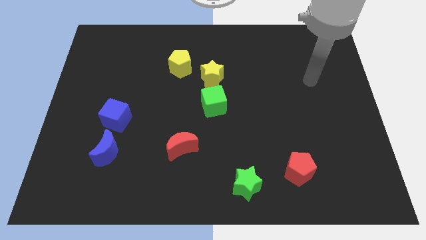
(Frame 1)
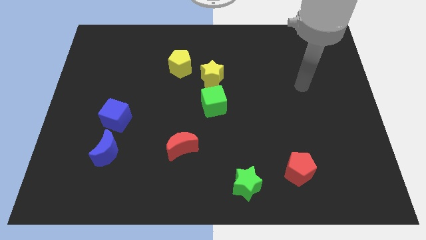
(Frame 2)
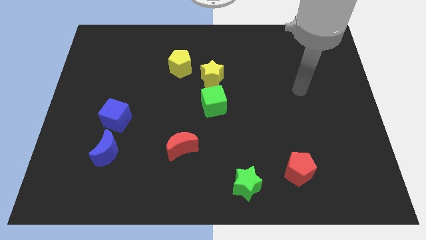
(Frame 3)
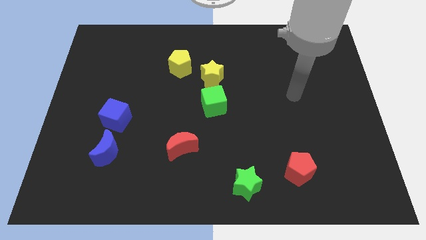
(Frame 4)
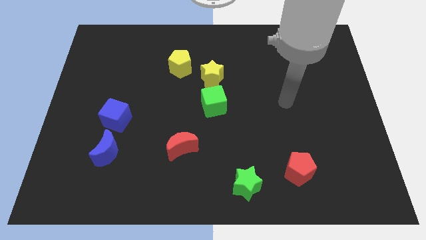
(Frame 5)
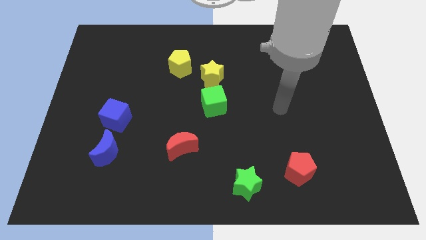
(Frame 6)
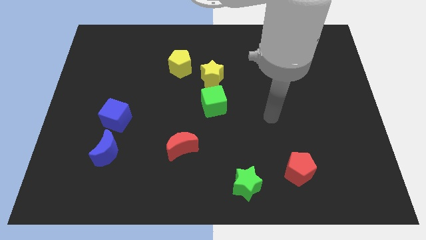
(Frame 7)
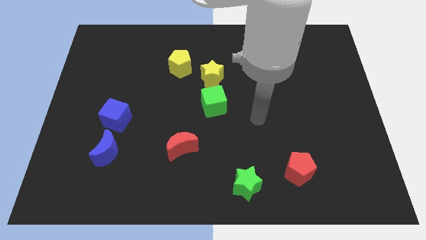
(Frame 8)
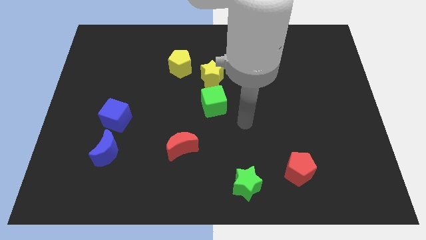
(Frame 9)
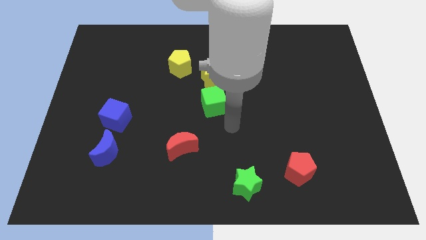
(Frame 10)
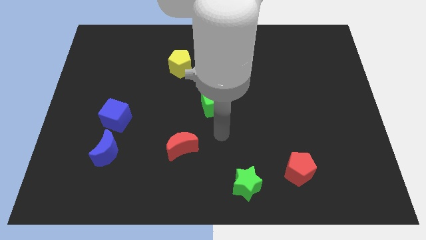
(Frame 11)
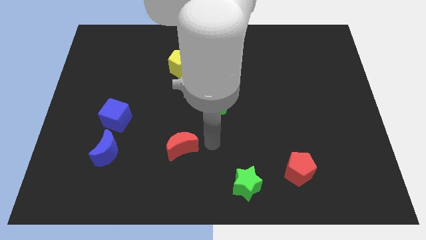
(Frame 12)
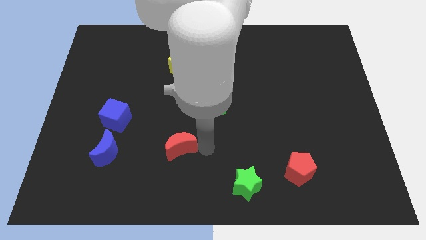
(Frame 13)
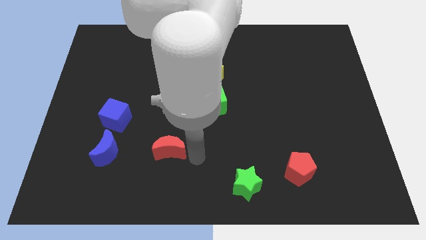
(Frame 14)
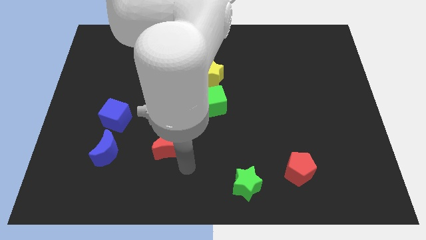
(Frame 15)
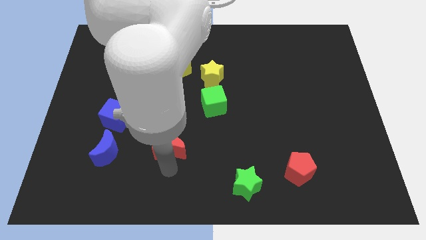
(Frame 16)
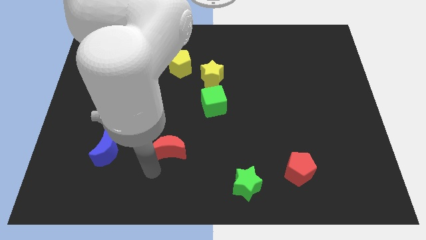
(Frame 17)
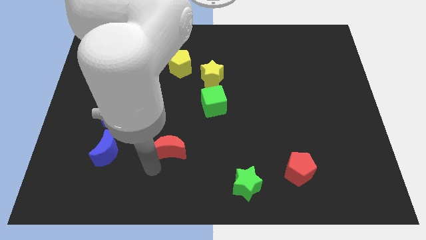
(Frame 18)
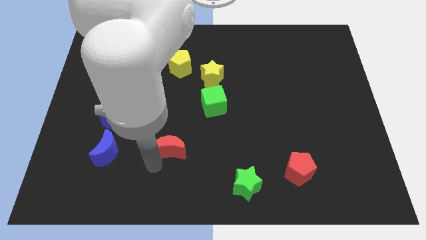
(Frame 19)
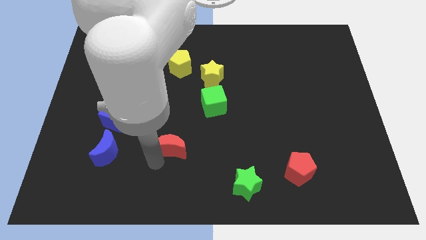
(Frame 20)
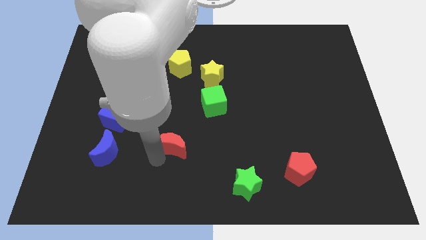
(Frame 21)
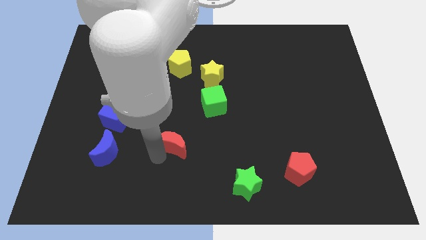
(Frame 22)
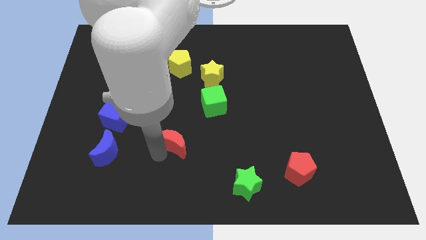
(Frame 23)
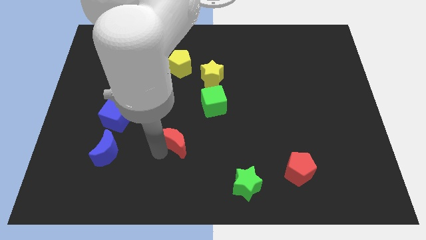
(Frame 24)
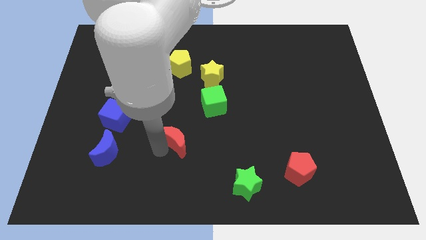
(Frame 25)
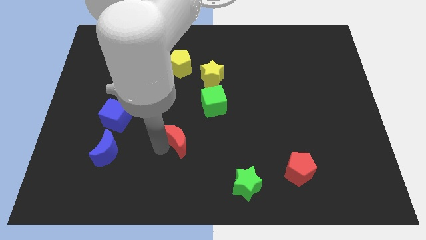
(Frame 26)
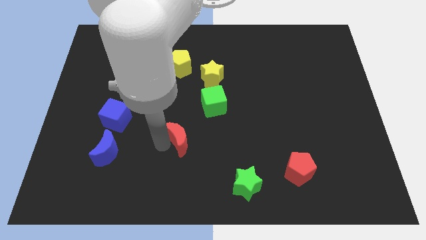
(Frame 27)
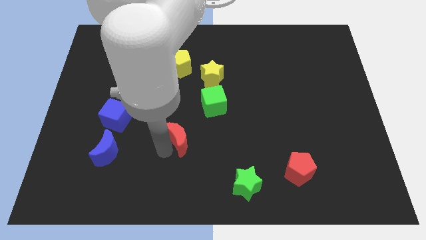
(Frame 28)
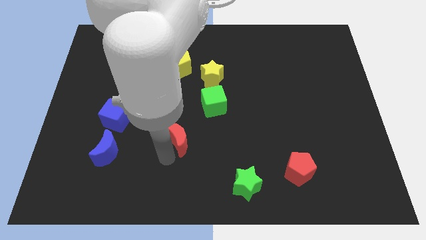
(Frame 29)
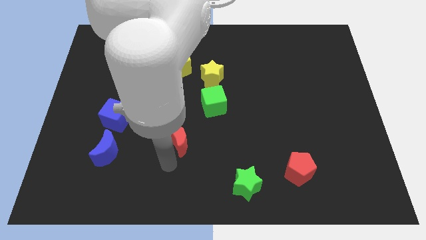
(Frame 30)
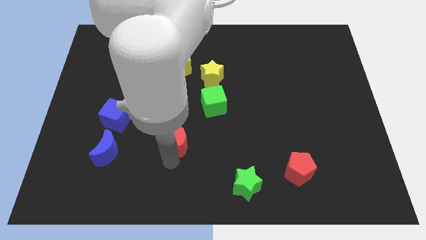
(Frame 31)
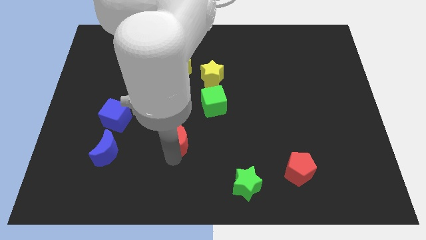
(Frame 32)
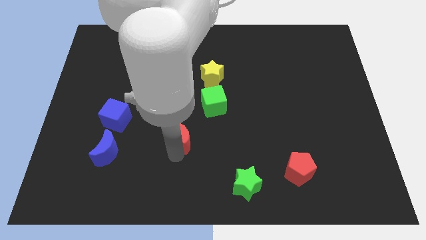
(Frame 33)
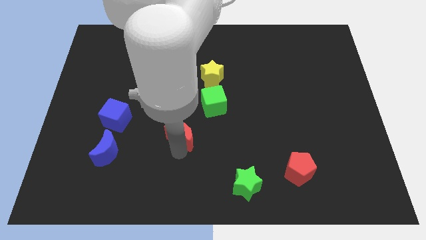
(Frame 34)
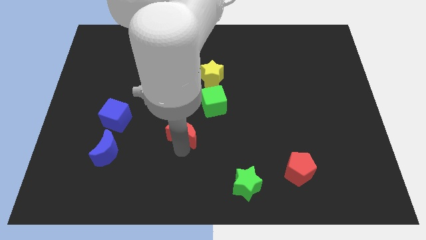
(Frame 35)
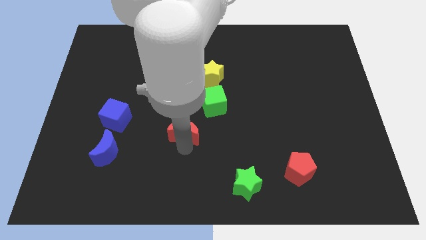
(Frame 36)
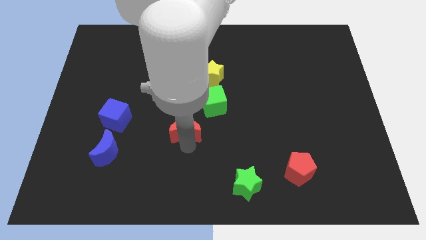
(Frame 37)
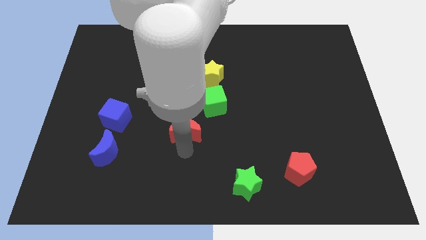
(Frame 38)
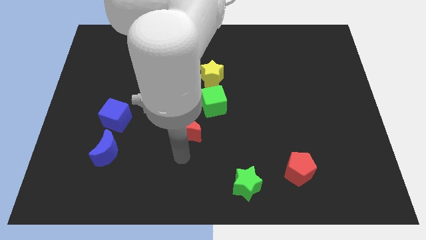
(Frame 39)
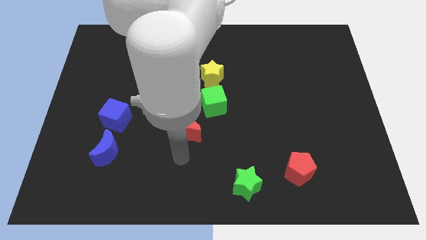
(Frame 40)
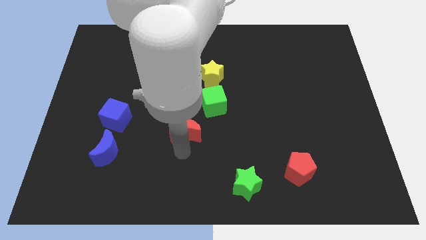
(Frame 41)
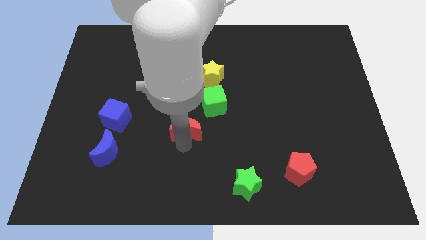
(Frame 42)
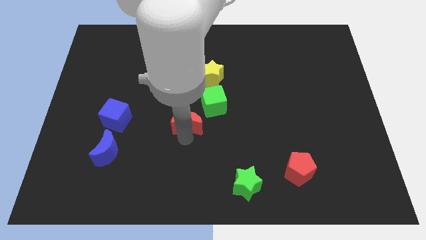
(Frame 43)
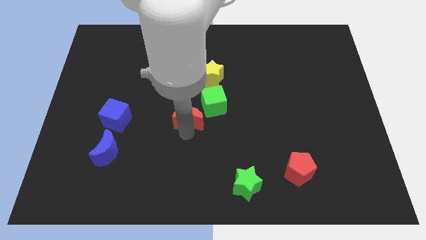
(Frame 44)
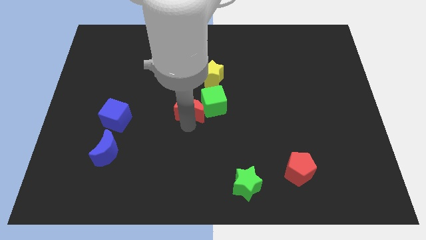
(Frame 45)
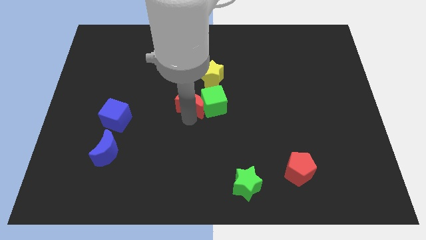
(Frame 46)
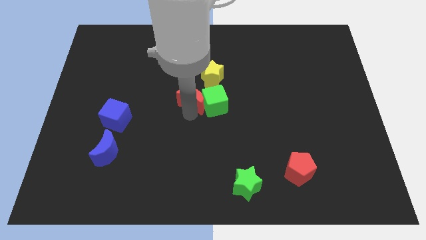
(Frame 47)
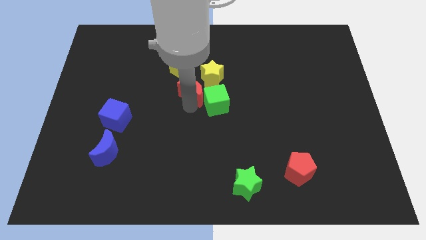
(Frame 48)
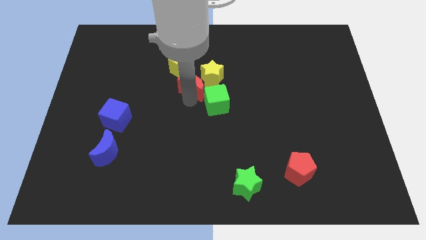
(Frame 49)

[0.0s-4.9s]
slide the red moon towards the yellow star

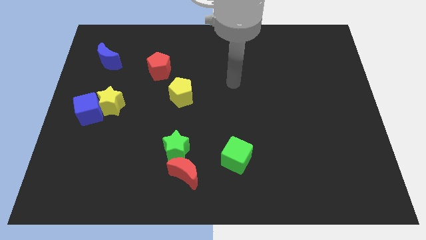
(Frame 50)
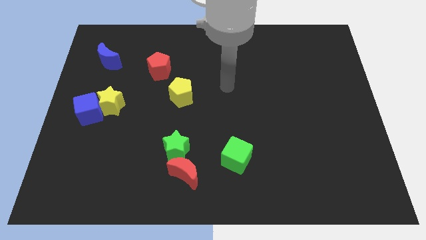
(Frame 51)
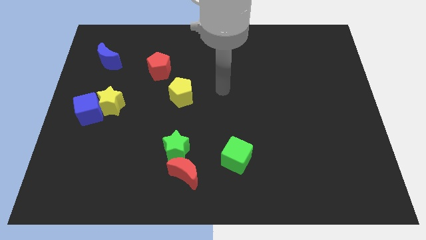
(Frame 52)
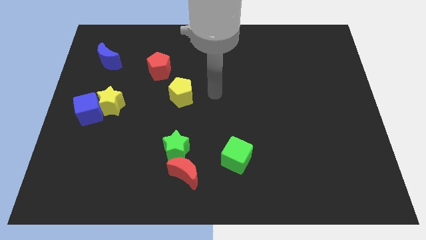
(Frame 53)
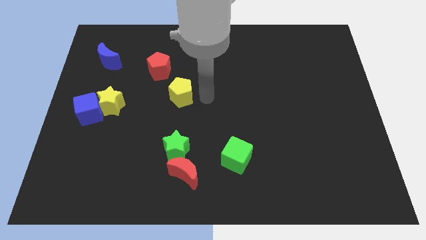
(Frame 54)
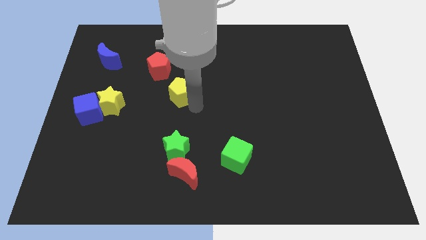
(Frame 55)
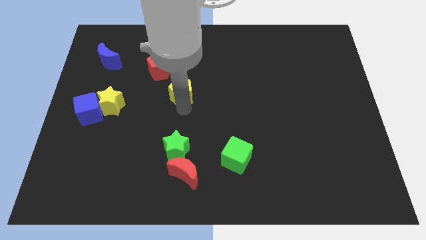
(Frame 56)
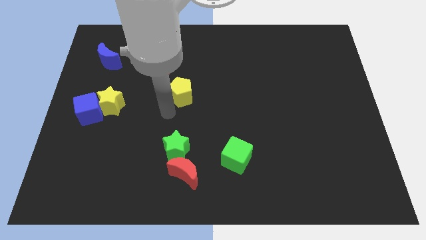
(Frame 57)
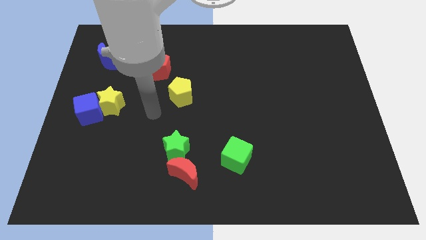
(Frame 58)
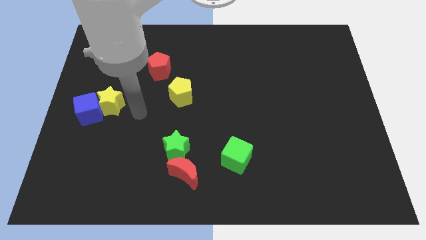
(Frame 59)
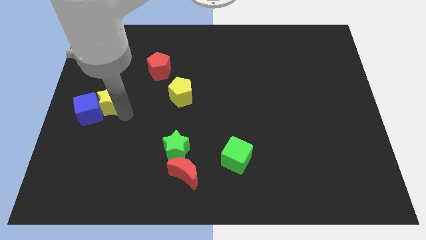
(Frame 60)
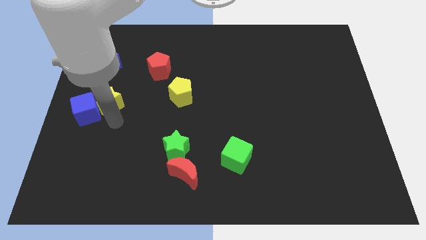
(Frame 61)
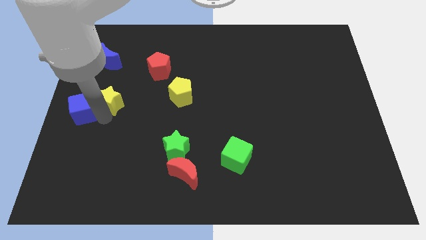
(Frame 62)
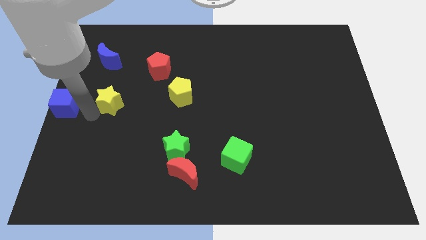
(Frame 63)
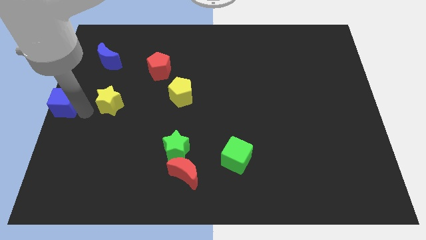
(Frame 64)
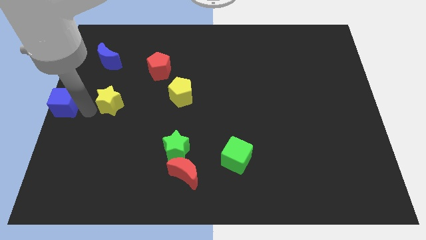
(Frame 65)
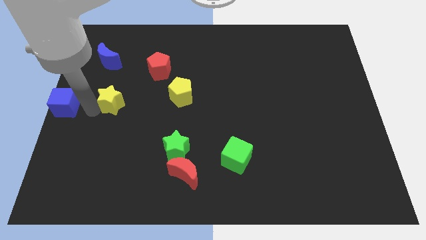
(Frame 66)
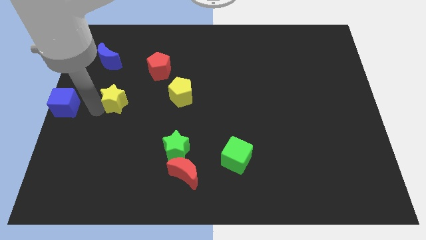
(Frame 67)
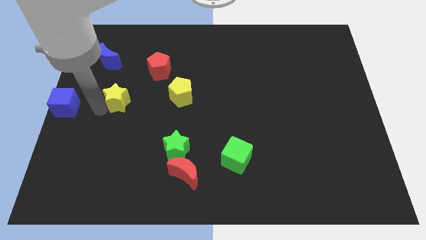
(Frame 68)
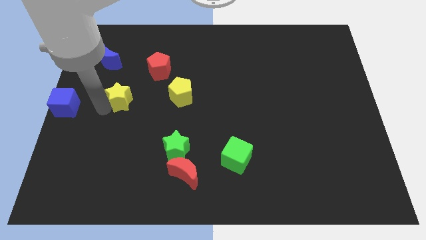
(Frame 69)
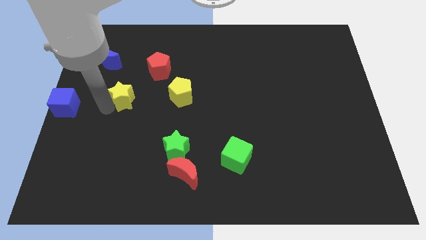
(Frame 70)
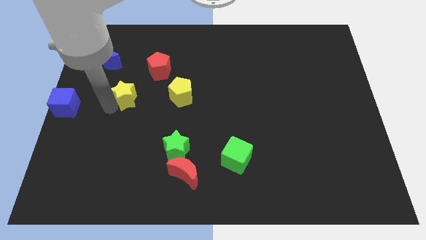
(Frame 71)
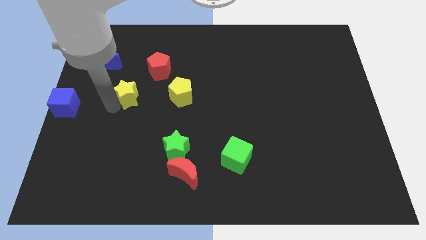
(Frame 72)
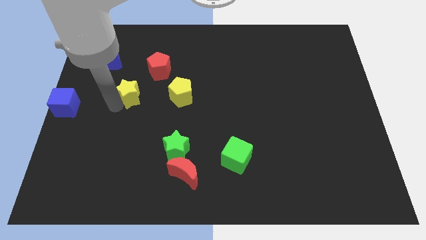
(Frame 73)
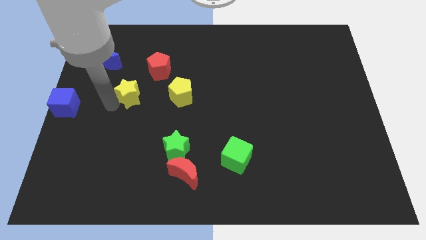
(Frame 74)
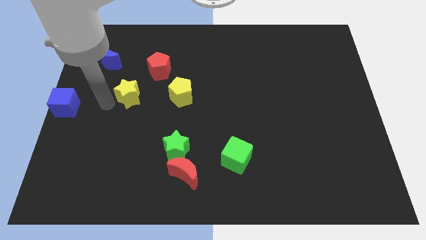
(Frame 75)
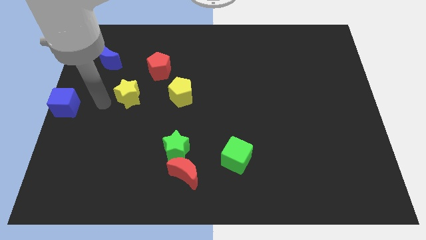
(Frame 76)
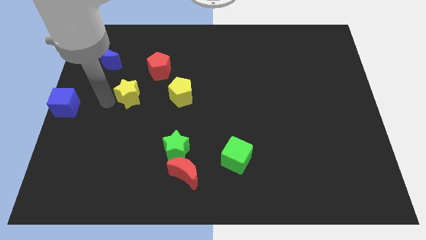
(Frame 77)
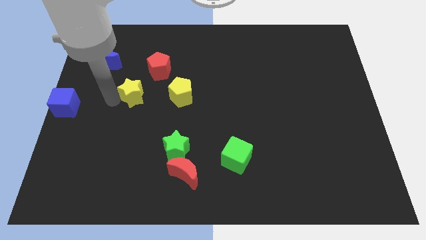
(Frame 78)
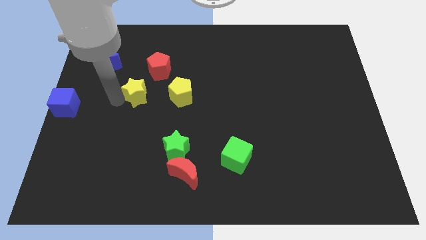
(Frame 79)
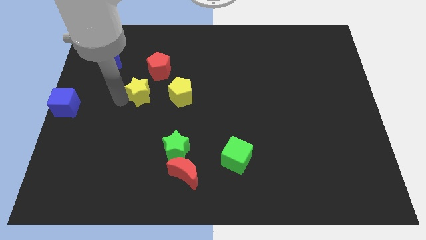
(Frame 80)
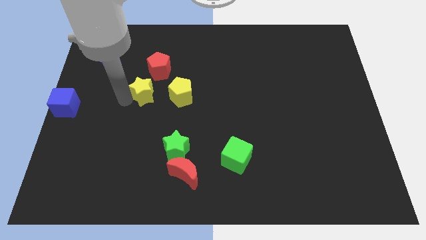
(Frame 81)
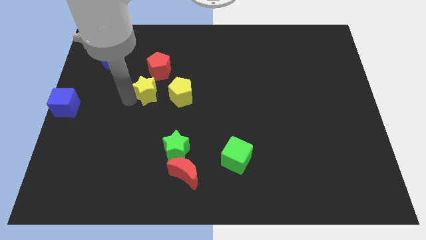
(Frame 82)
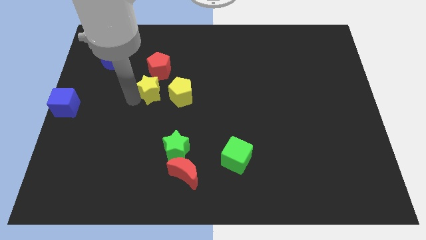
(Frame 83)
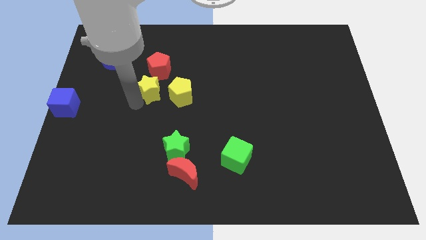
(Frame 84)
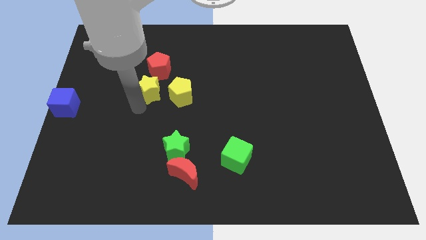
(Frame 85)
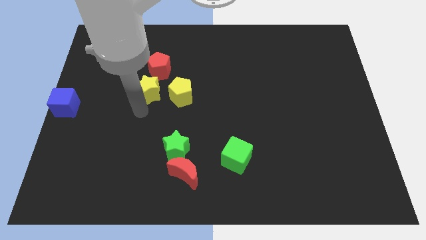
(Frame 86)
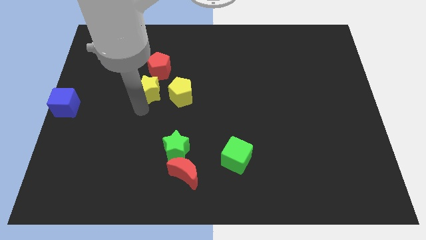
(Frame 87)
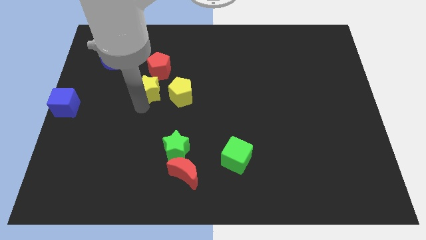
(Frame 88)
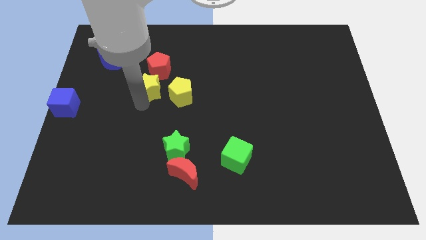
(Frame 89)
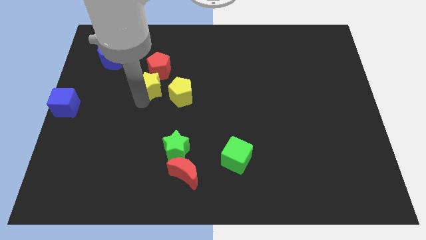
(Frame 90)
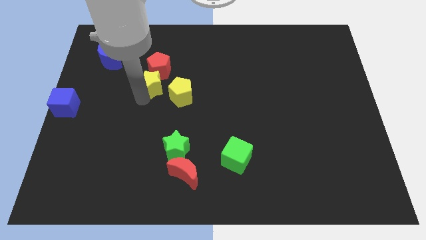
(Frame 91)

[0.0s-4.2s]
put the yellow star close to the red pentagon
